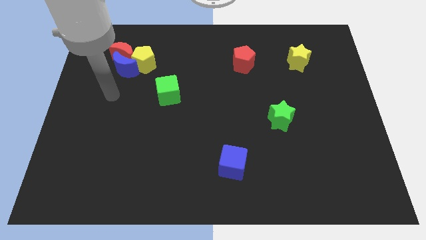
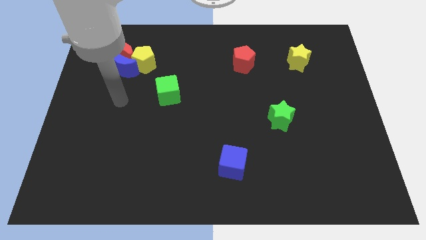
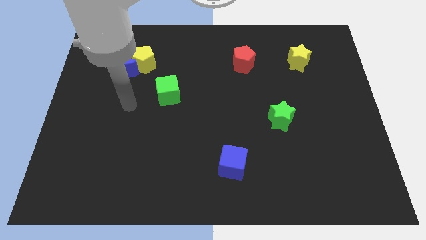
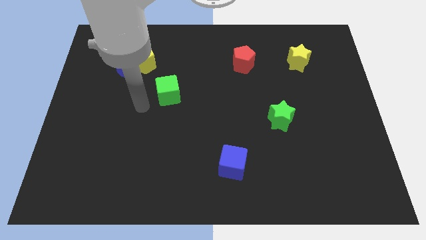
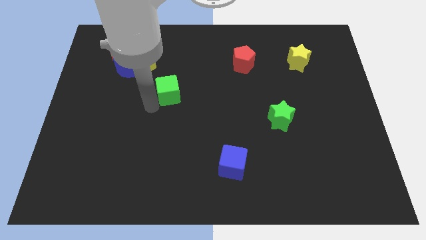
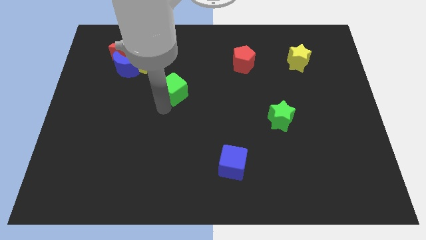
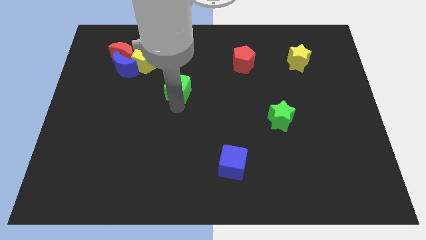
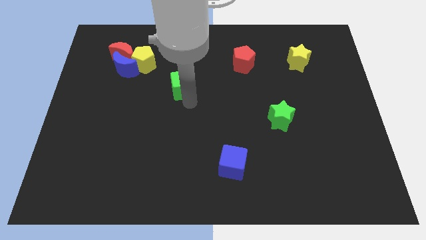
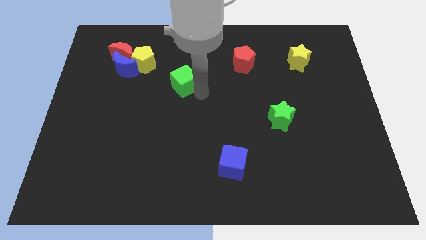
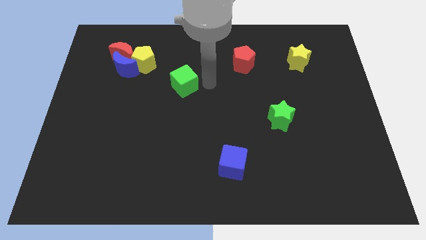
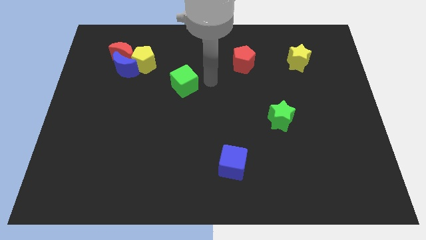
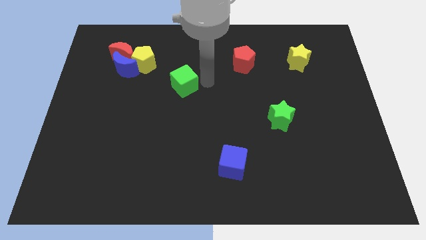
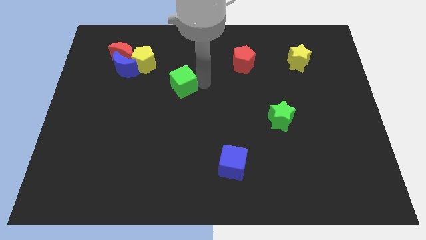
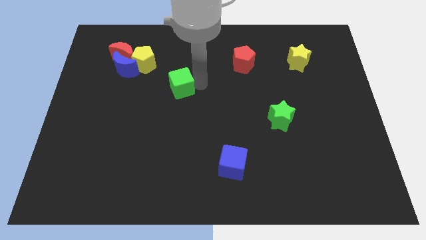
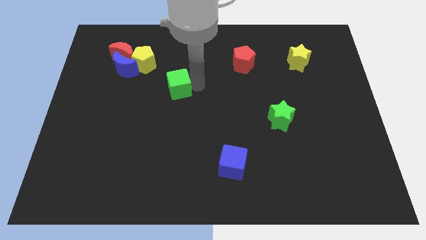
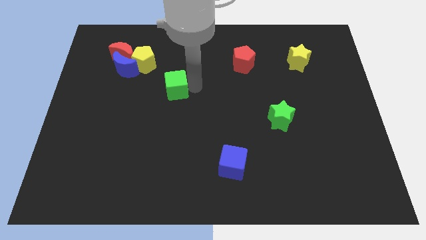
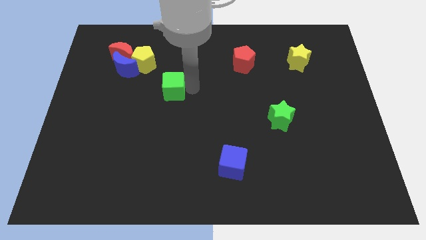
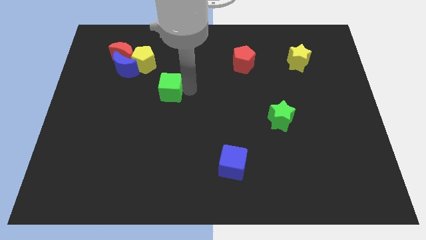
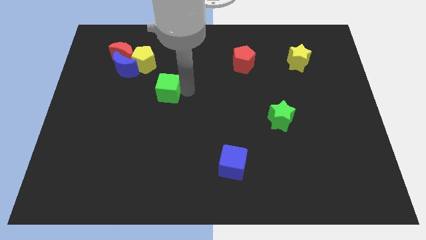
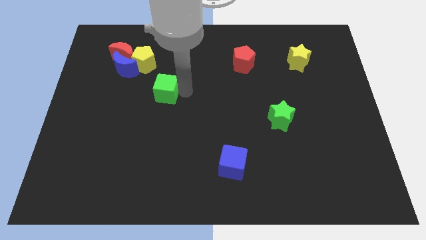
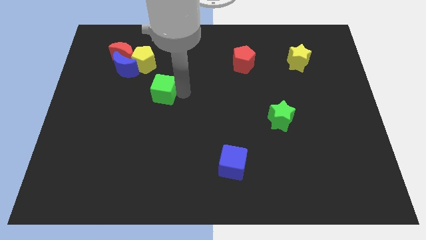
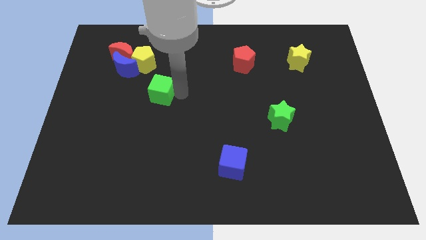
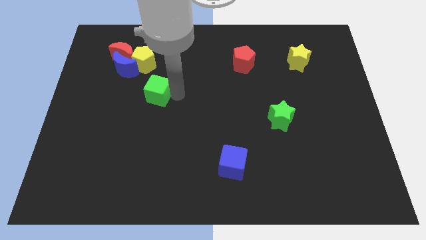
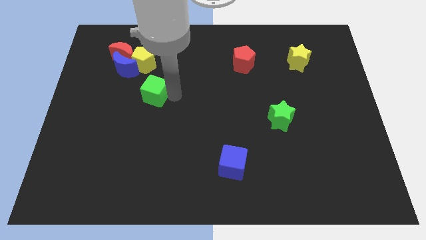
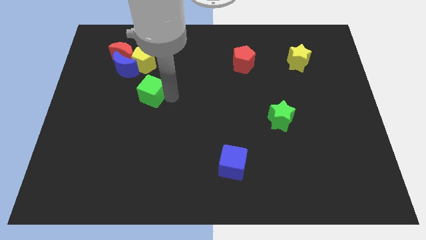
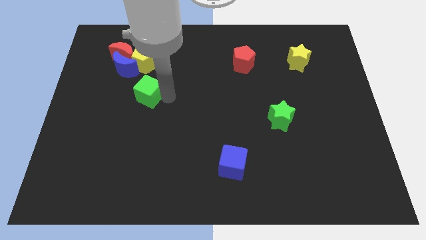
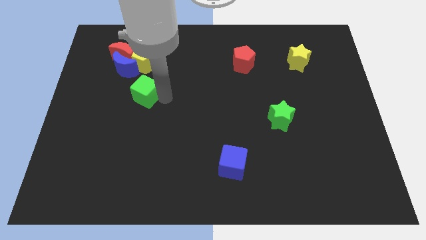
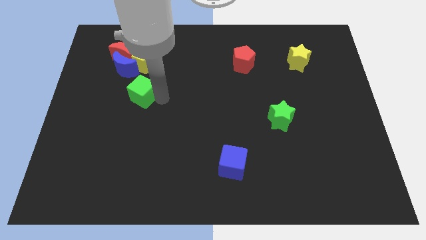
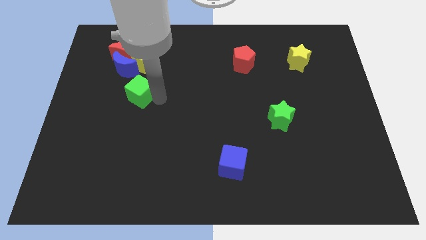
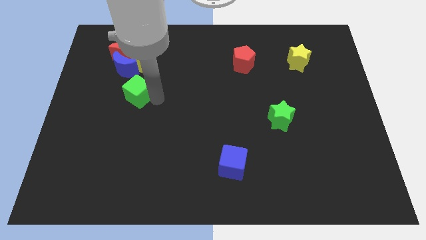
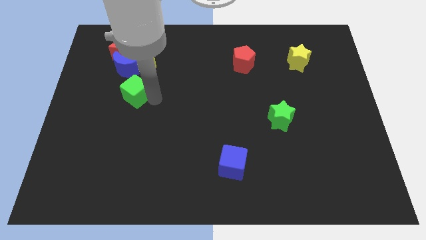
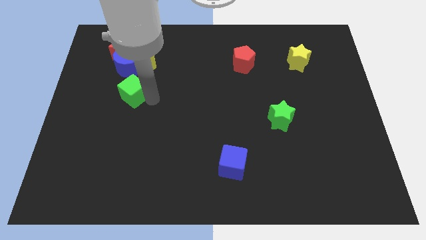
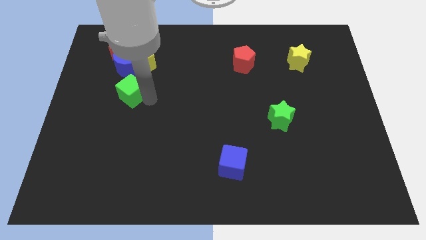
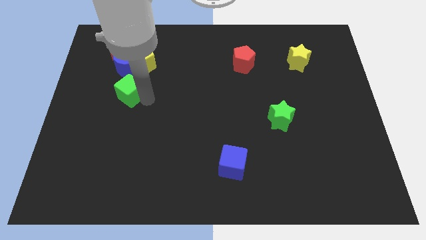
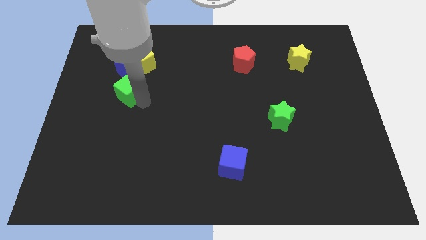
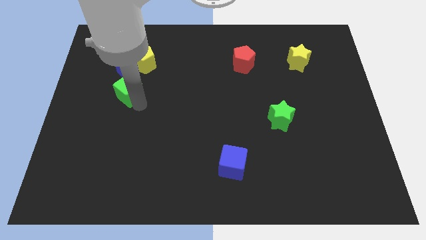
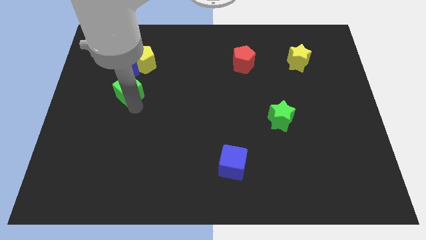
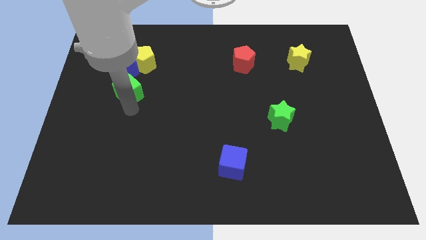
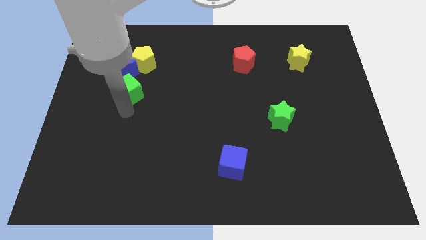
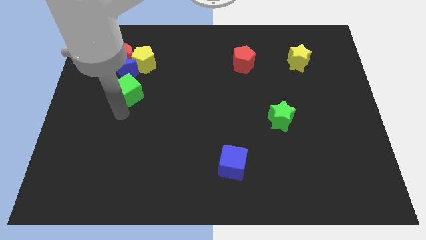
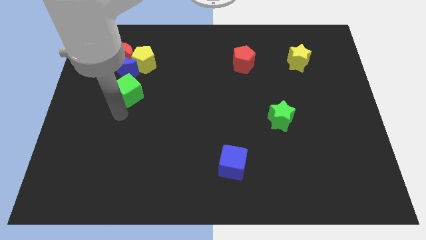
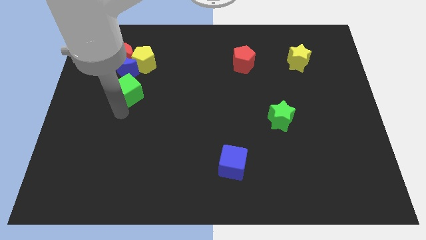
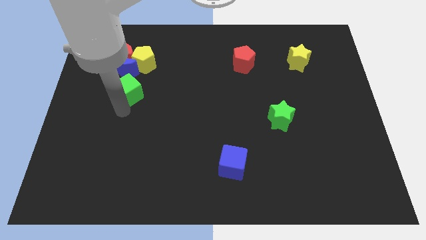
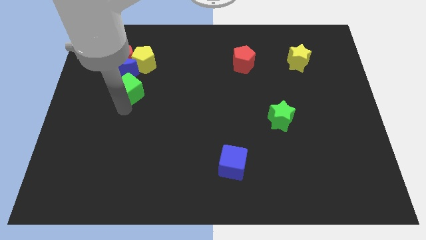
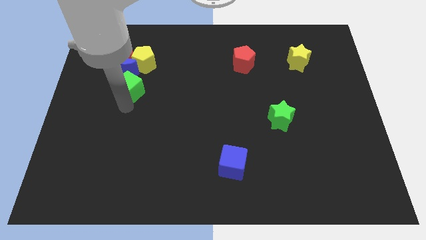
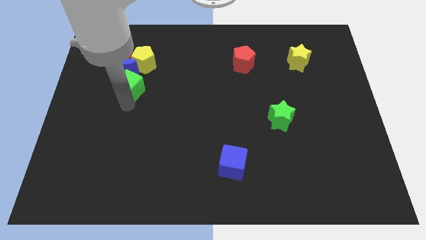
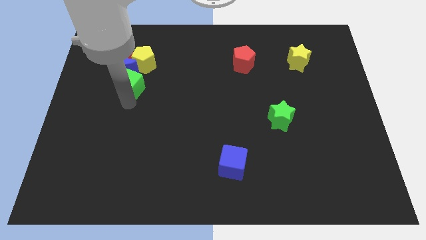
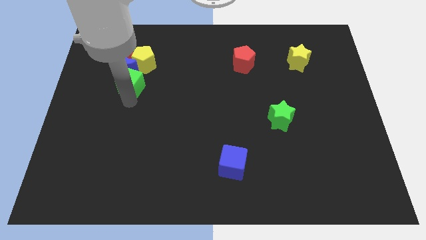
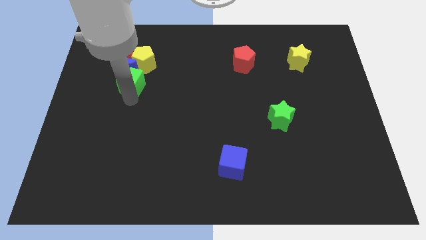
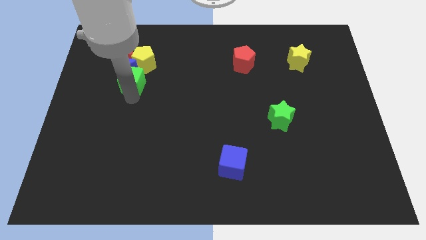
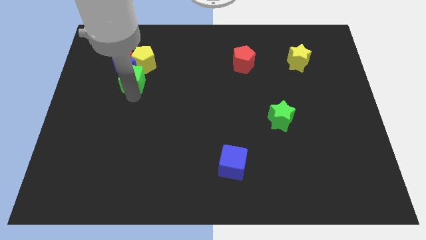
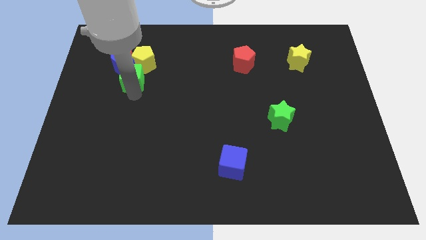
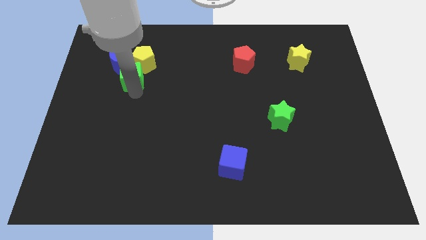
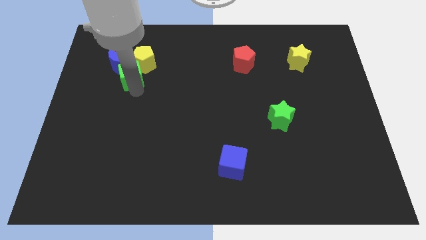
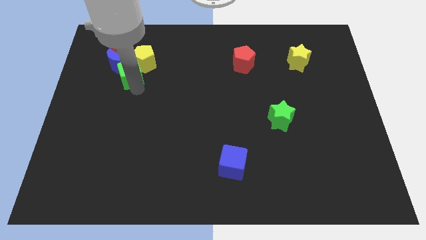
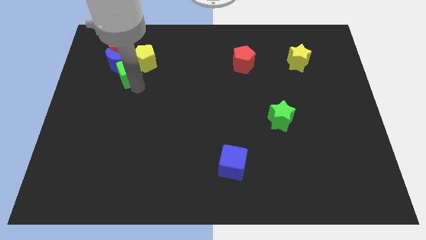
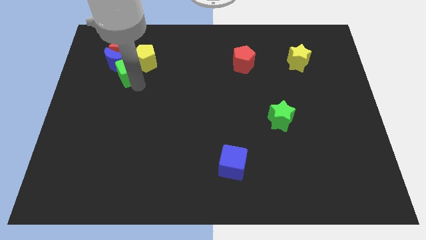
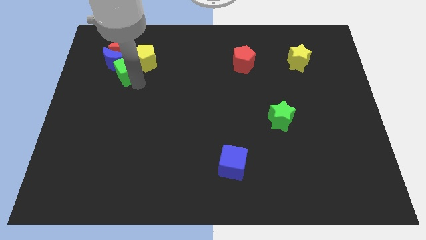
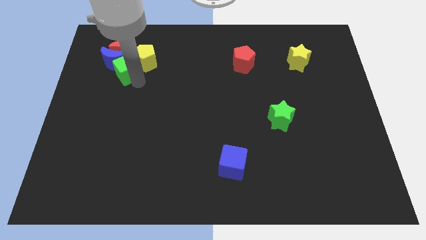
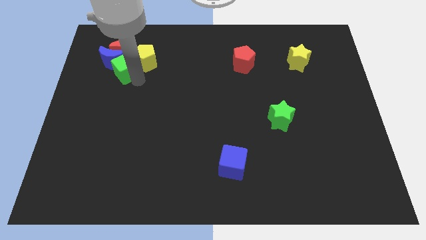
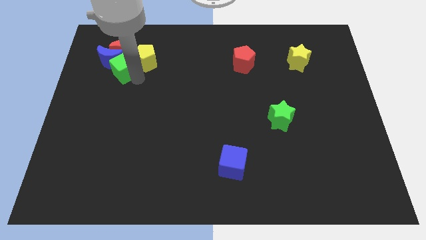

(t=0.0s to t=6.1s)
move the green cube diagonally down and to the left of the red moon

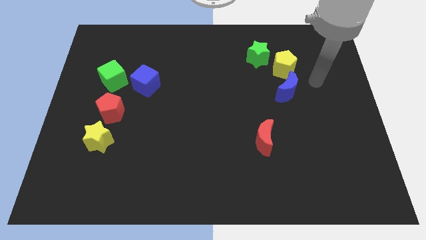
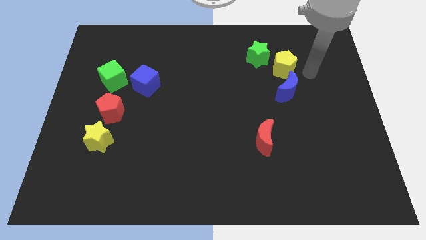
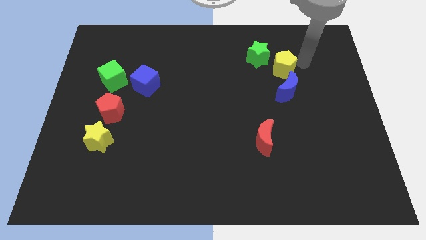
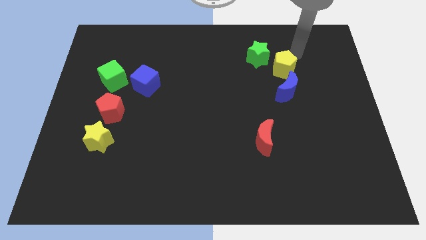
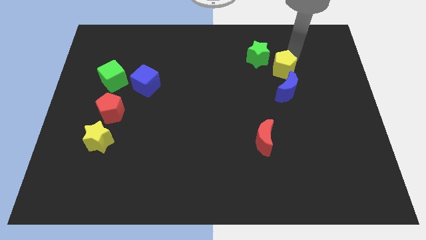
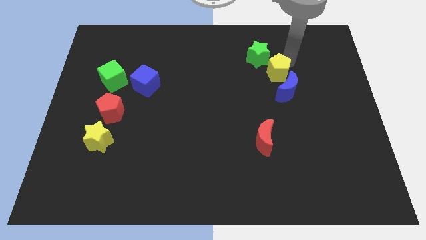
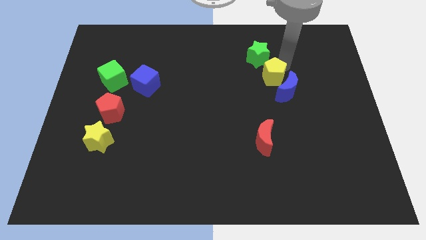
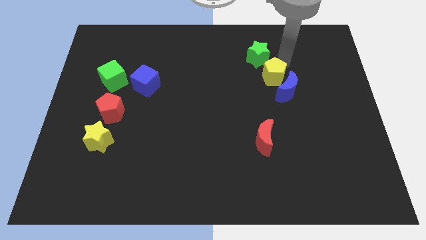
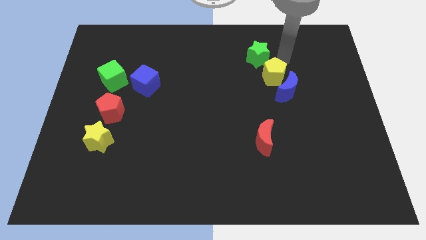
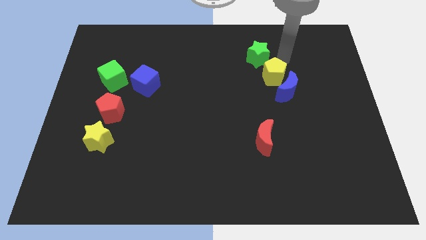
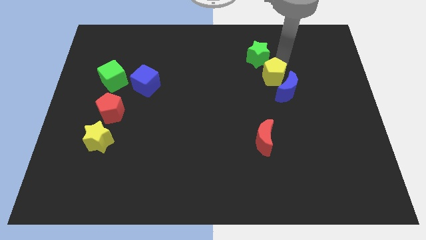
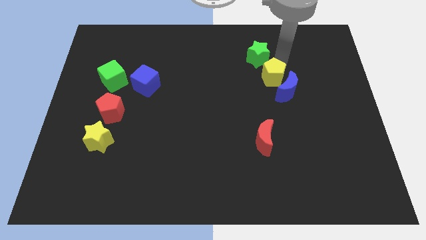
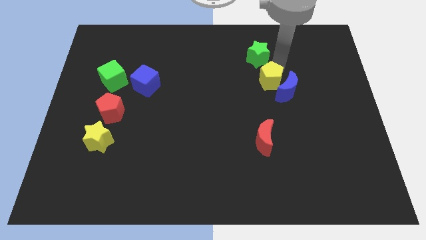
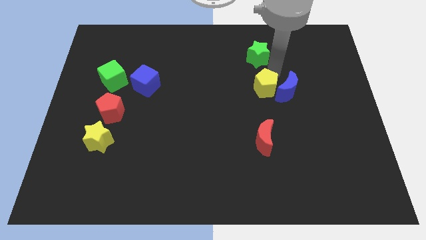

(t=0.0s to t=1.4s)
slide the yellow pentagon to the bottom left of the blue moon
